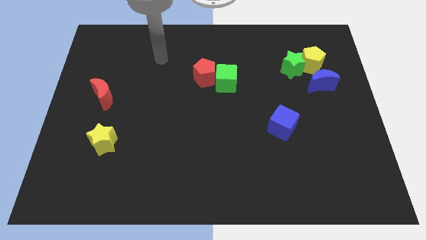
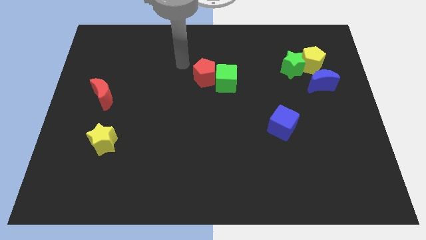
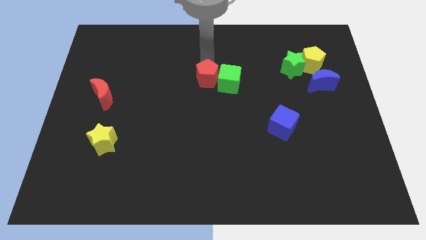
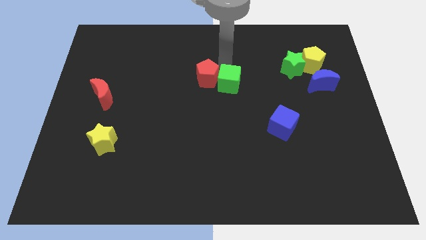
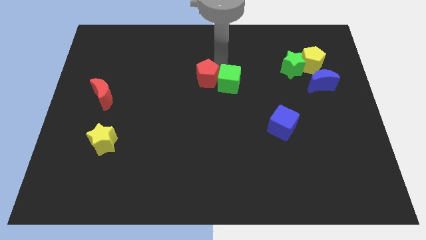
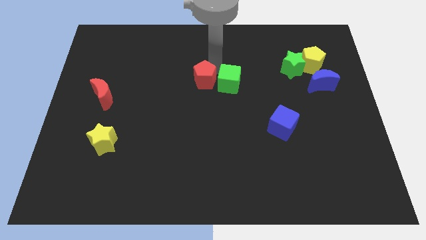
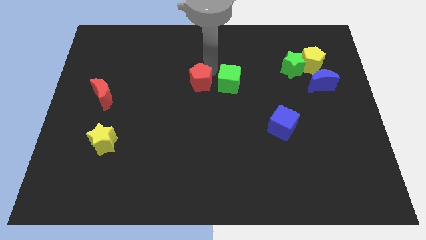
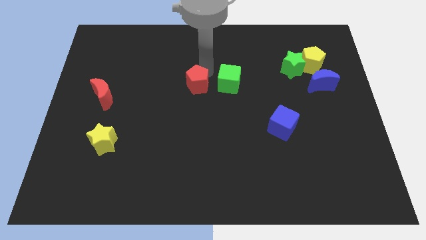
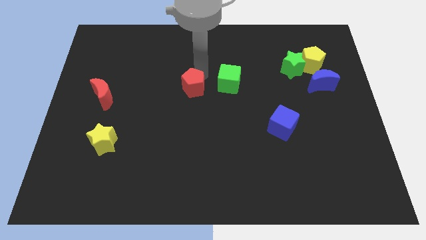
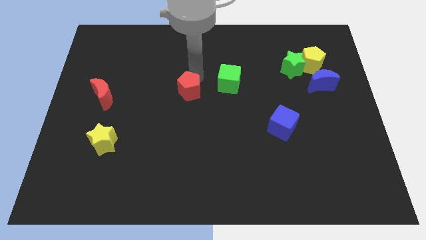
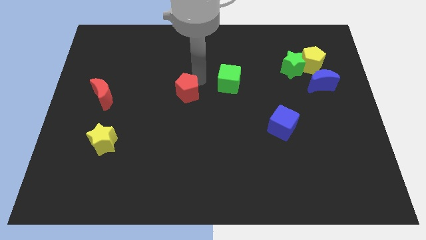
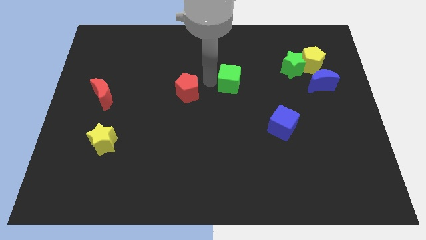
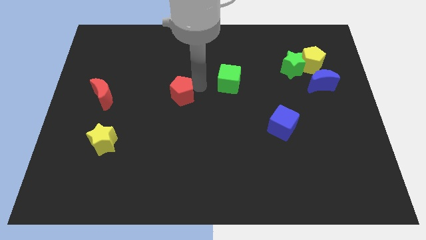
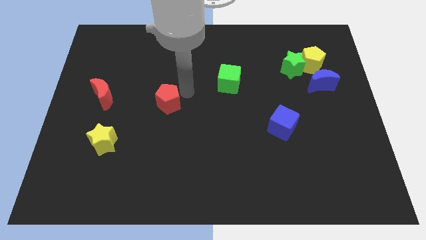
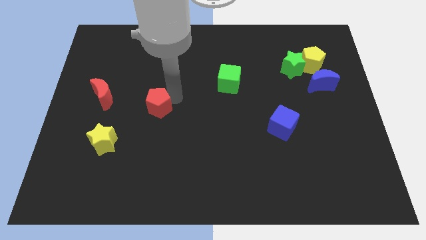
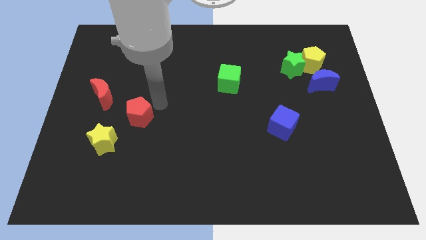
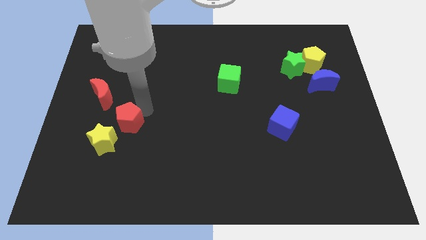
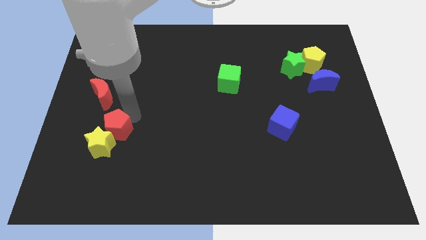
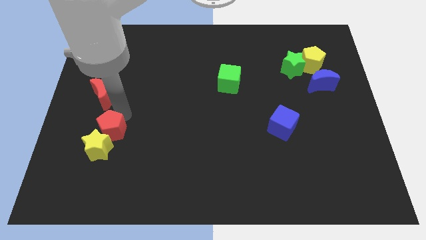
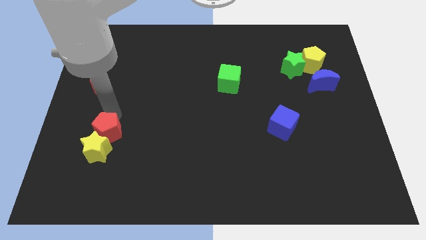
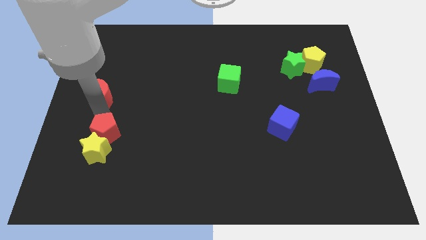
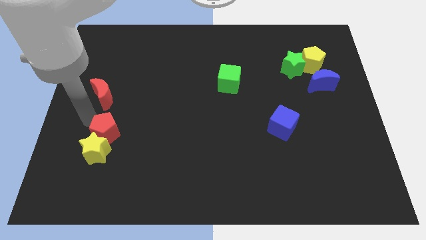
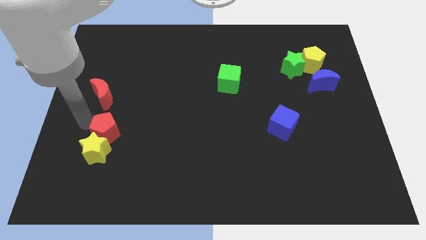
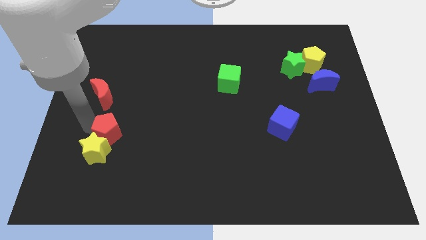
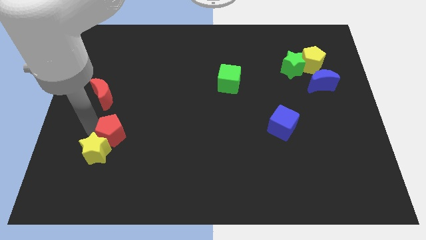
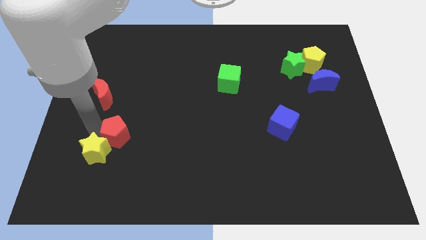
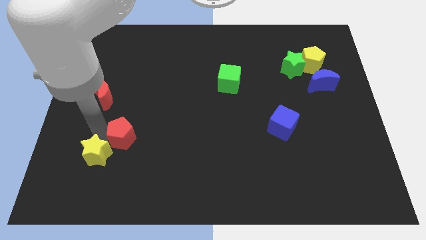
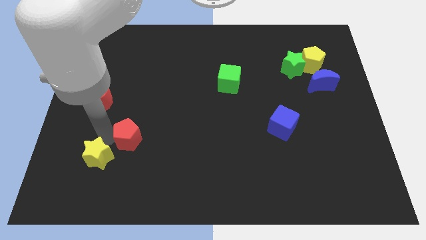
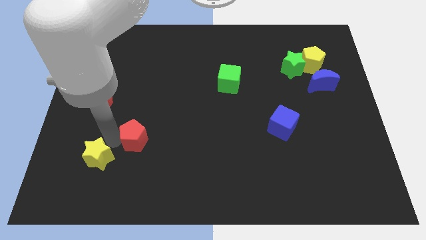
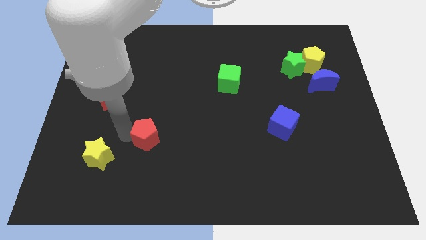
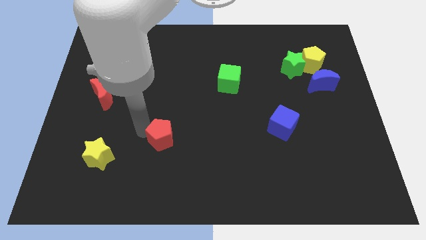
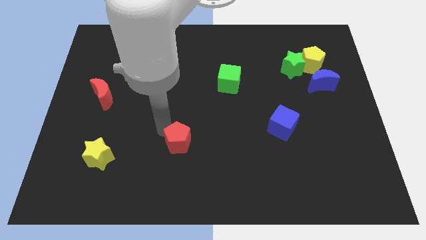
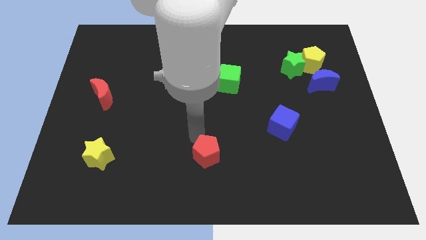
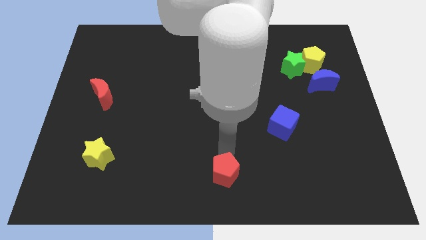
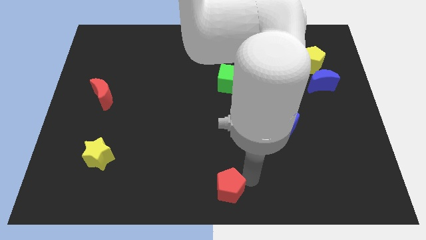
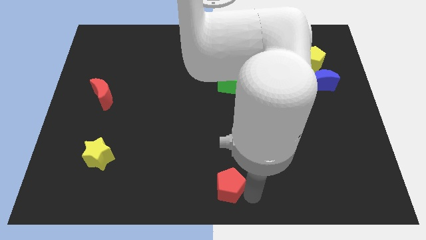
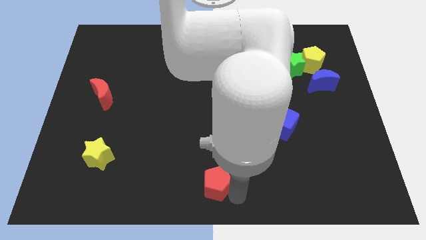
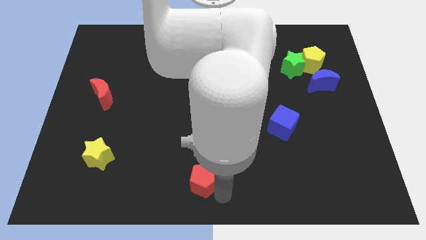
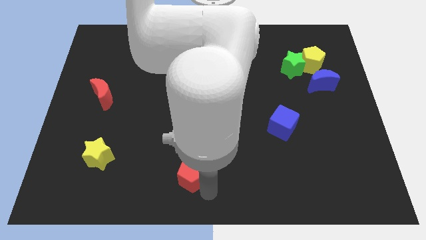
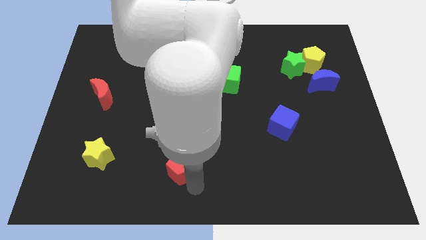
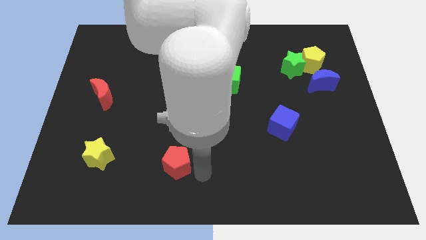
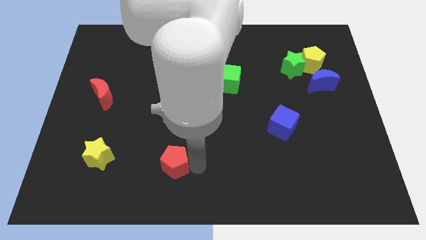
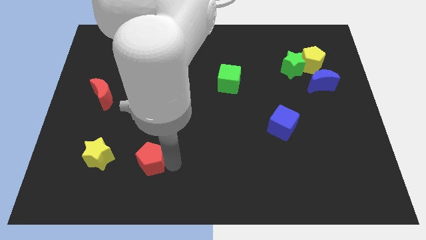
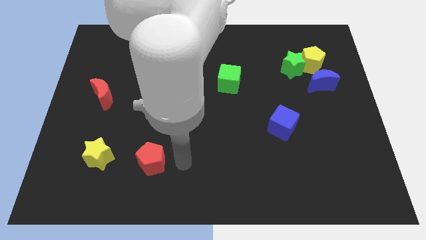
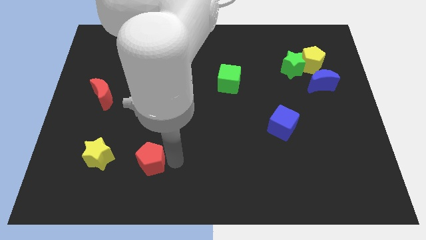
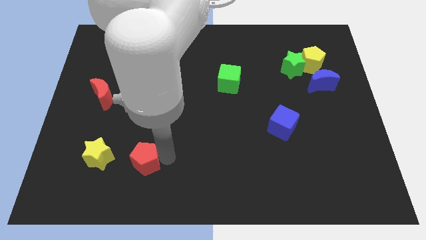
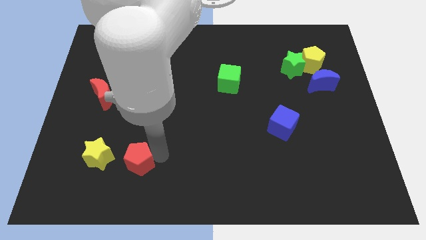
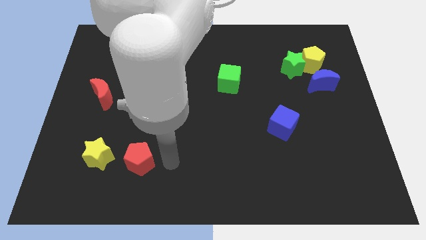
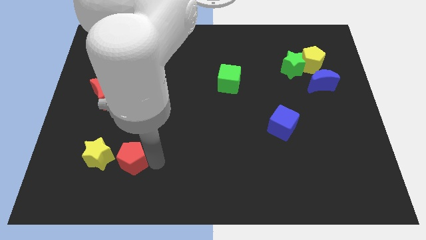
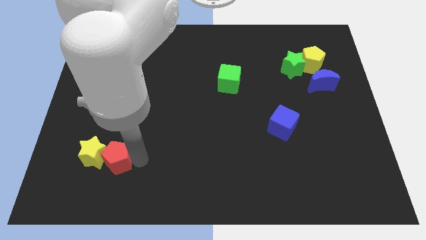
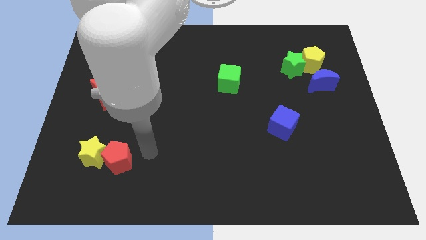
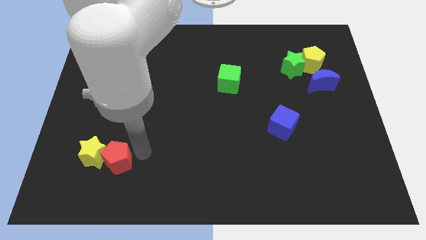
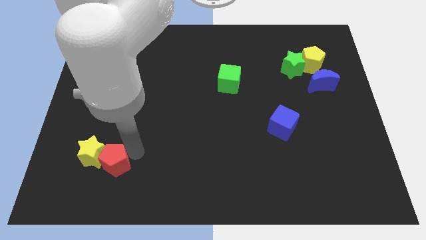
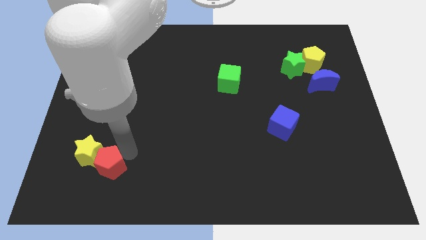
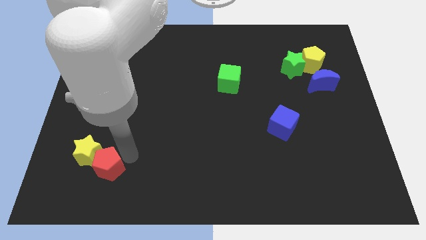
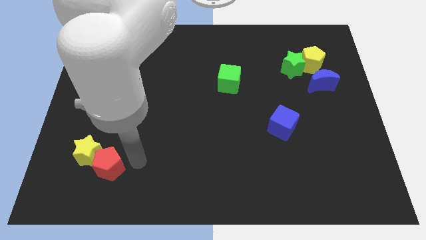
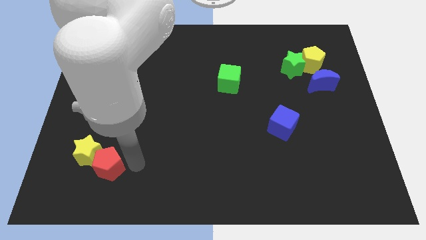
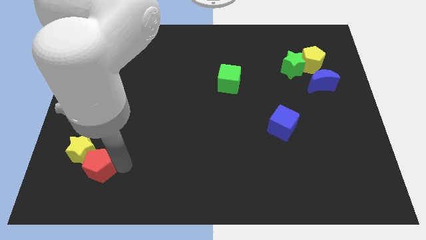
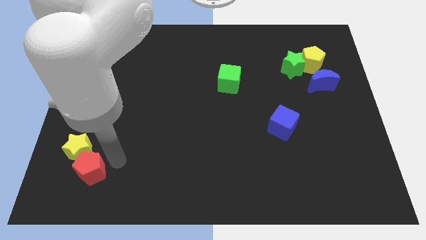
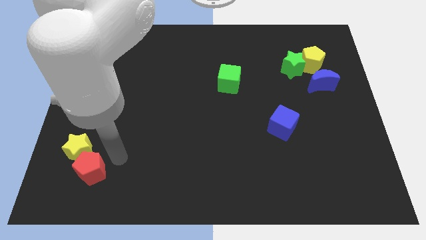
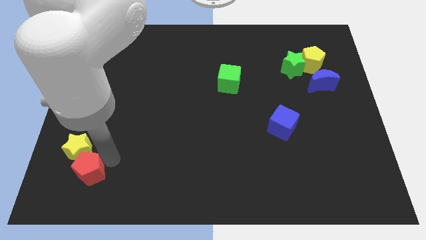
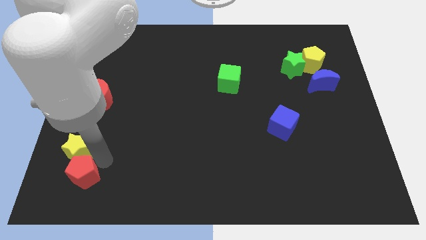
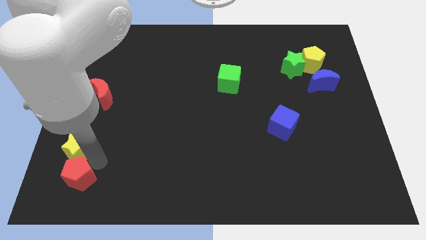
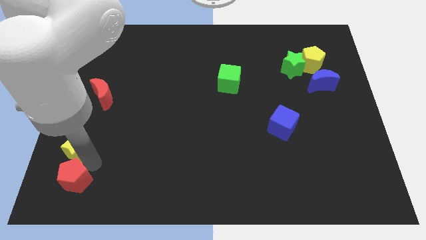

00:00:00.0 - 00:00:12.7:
put the red pentagon to the lower left corner
